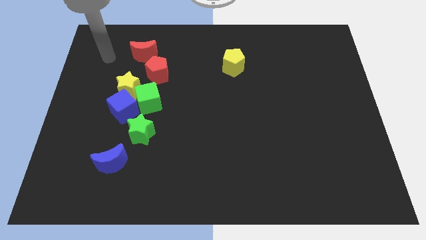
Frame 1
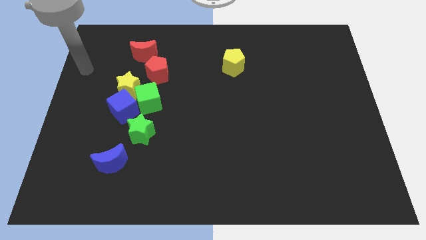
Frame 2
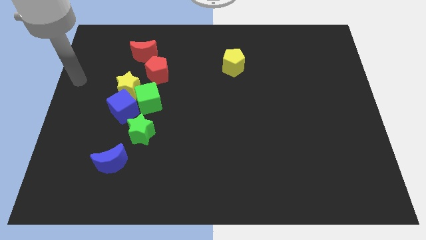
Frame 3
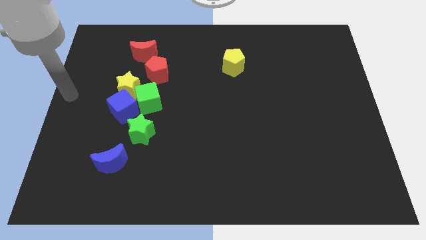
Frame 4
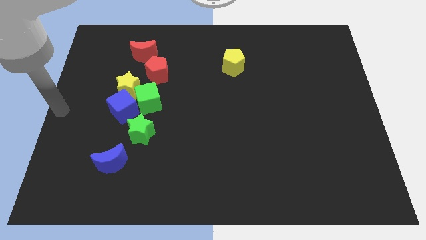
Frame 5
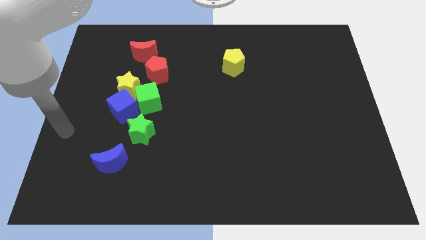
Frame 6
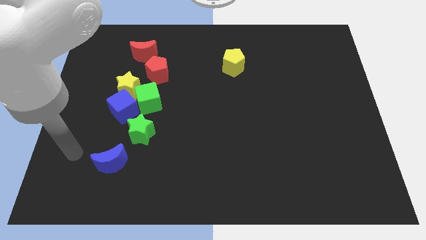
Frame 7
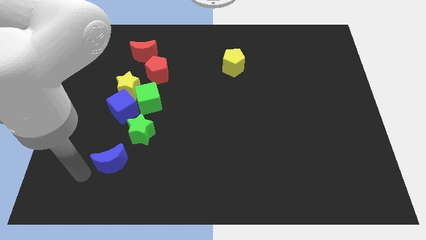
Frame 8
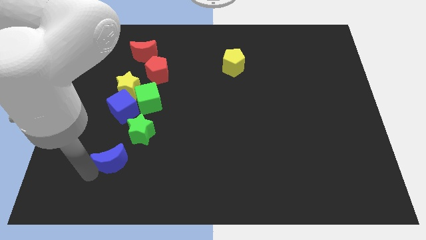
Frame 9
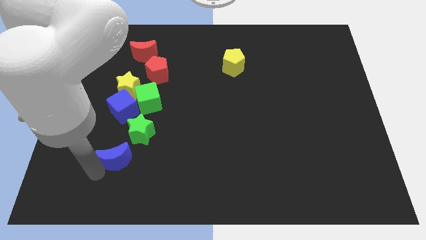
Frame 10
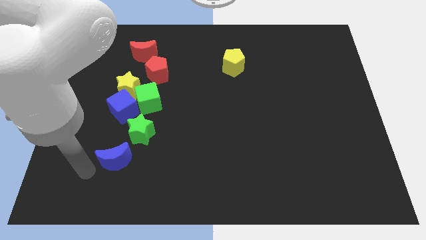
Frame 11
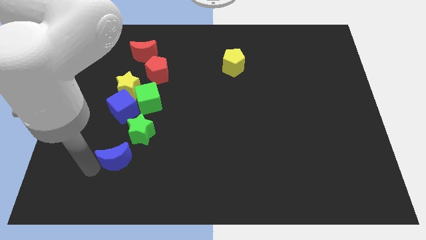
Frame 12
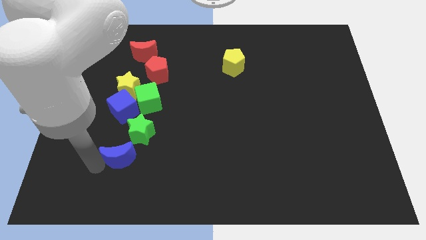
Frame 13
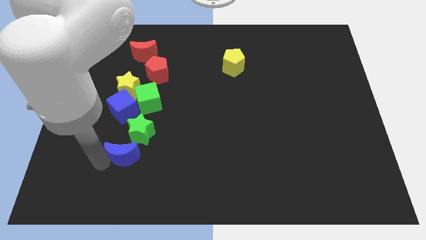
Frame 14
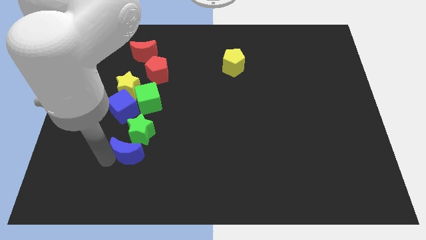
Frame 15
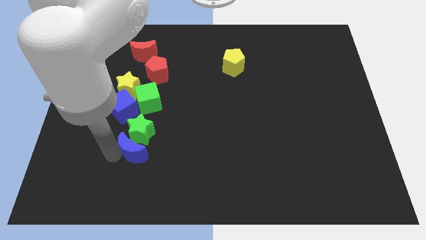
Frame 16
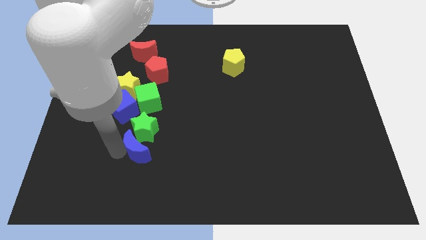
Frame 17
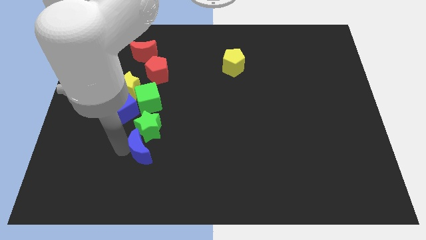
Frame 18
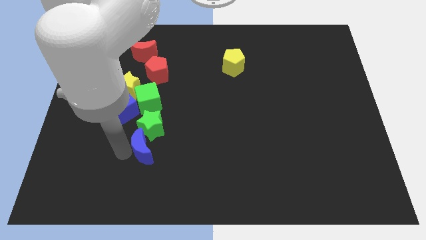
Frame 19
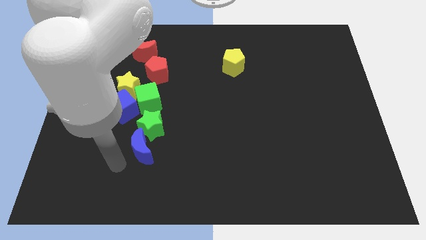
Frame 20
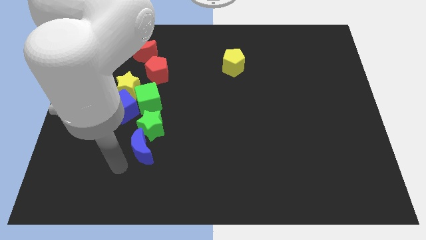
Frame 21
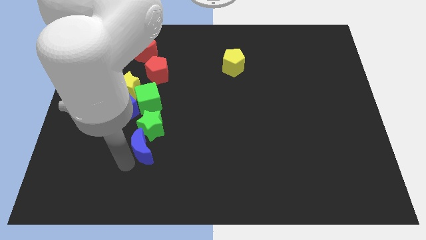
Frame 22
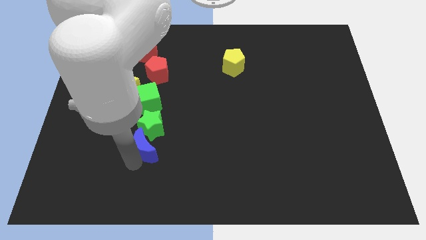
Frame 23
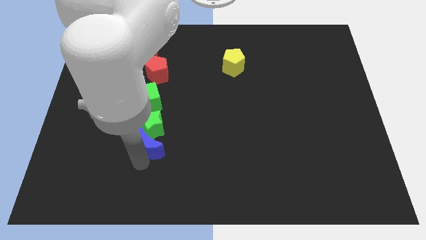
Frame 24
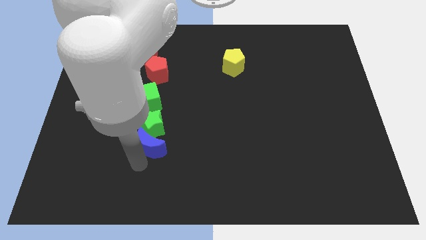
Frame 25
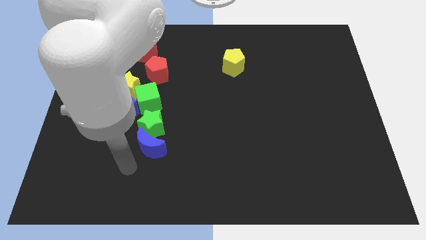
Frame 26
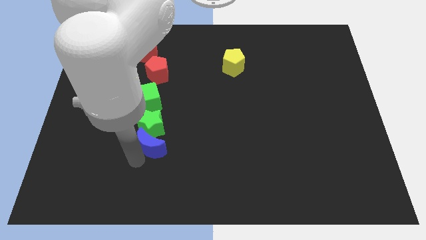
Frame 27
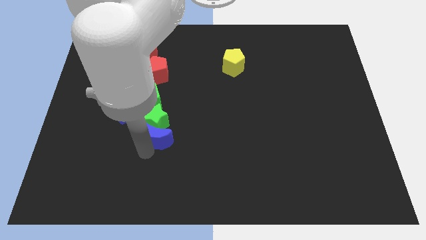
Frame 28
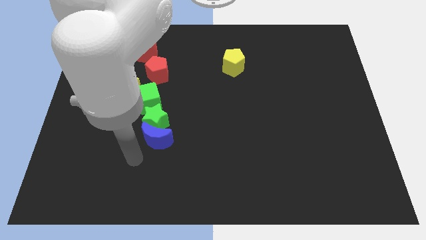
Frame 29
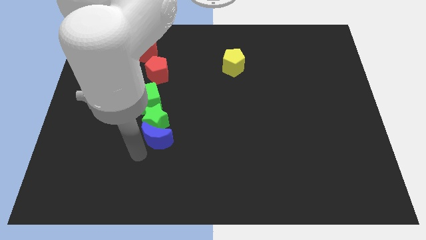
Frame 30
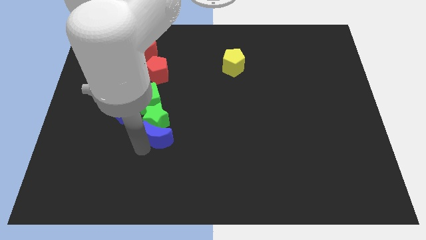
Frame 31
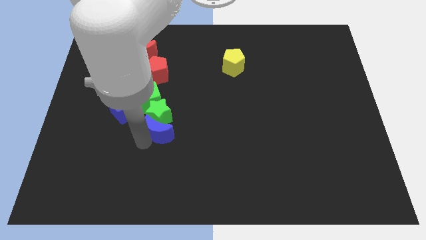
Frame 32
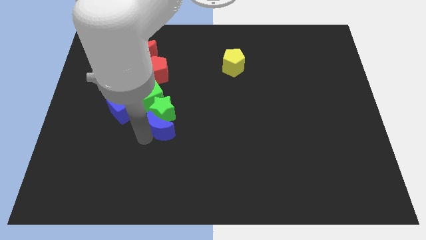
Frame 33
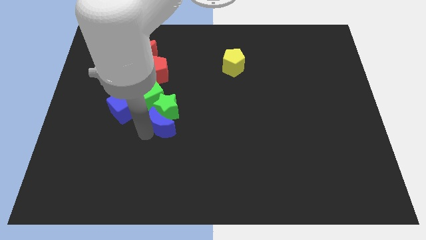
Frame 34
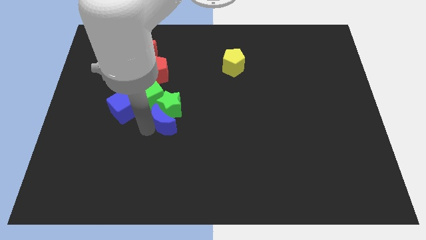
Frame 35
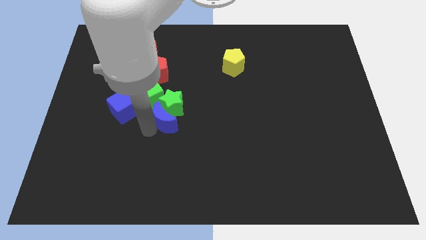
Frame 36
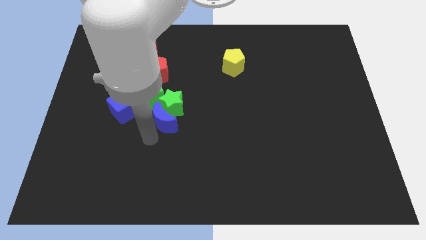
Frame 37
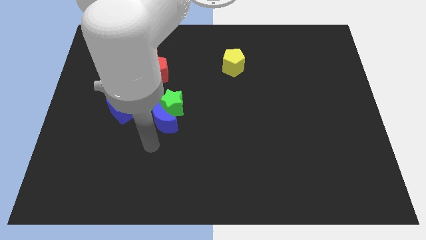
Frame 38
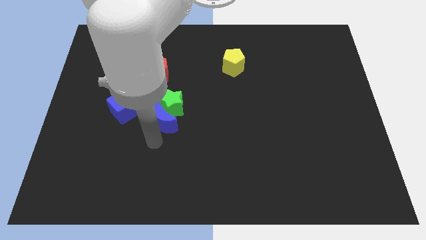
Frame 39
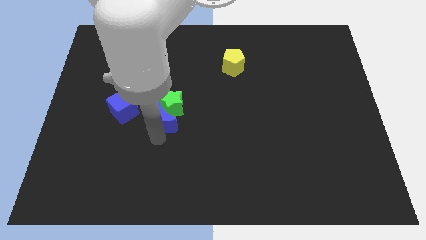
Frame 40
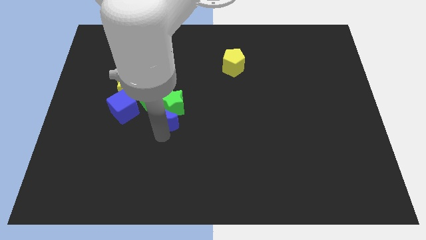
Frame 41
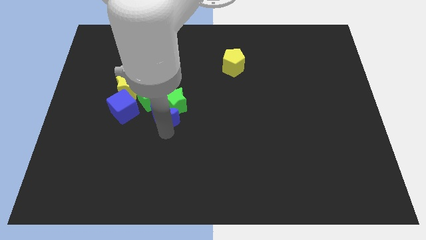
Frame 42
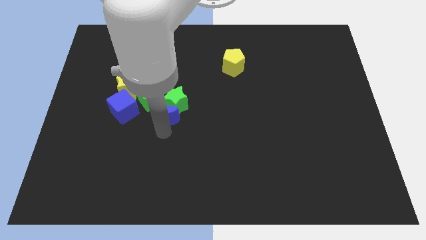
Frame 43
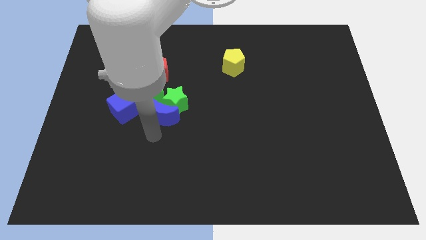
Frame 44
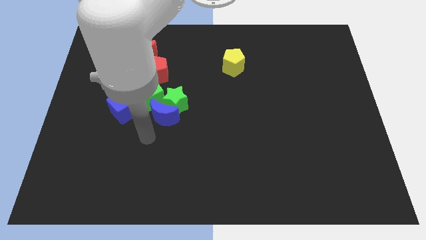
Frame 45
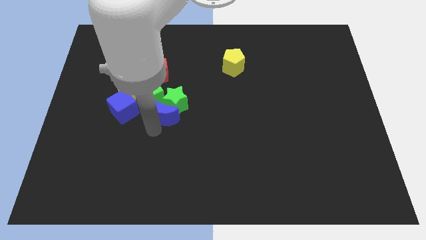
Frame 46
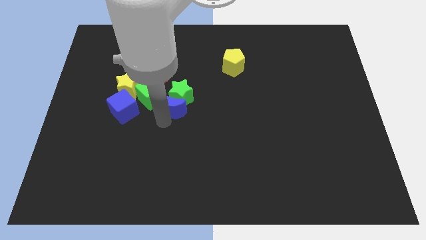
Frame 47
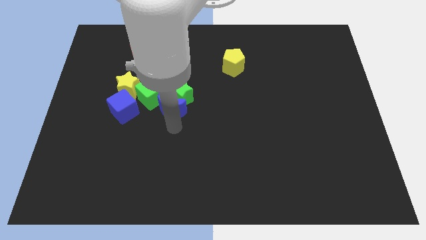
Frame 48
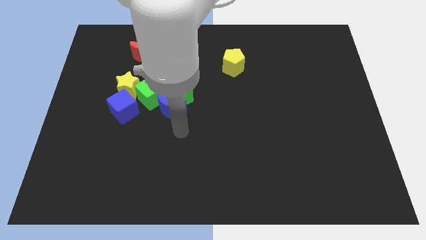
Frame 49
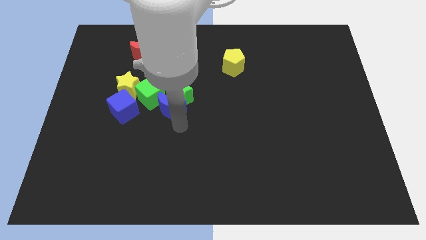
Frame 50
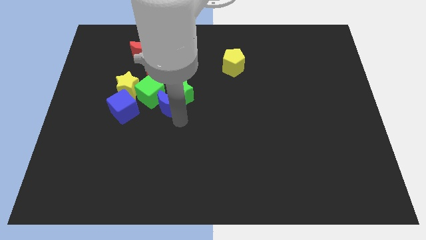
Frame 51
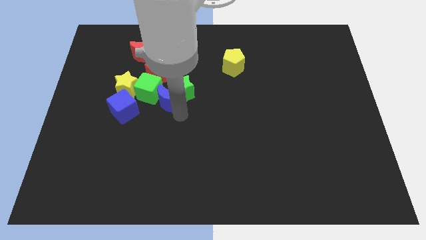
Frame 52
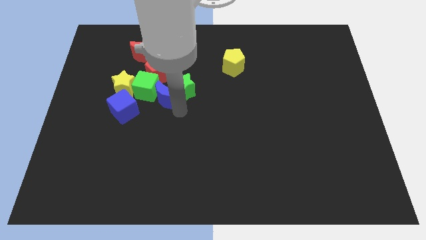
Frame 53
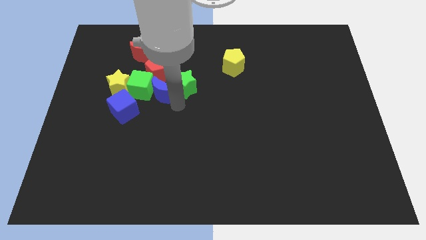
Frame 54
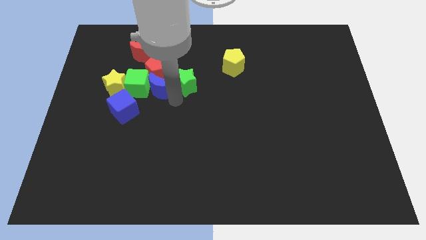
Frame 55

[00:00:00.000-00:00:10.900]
push the blue moon to the red pentagon

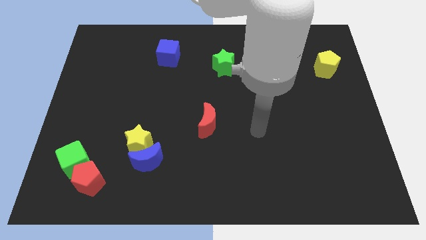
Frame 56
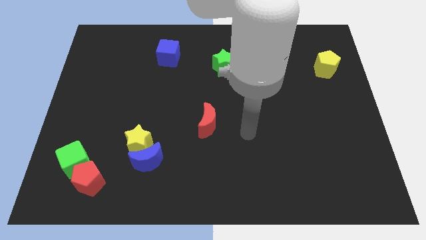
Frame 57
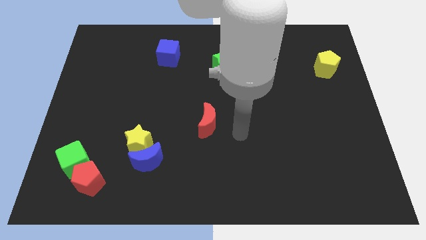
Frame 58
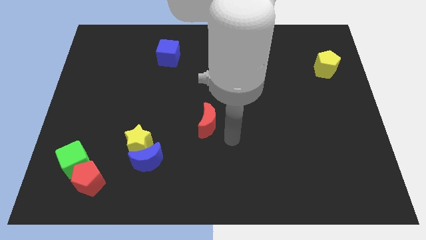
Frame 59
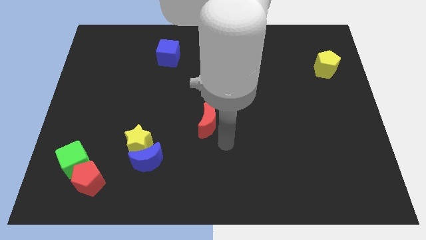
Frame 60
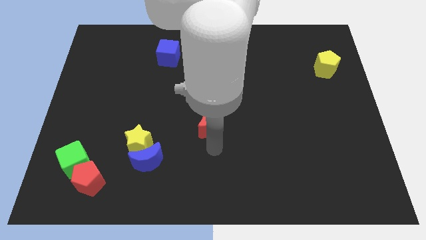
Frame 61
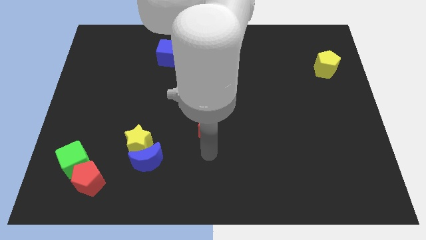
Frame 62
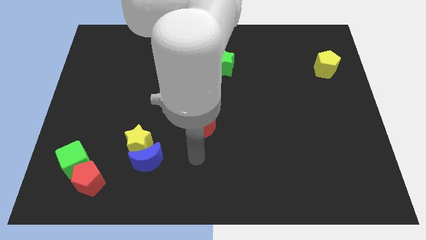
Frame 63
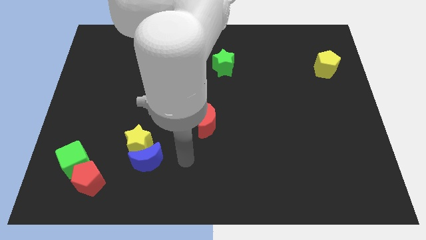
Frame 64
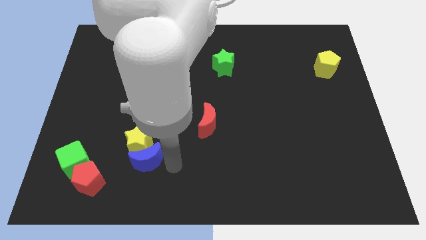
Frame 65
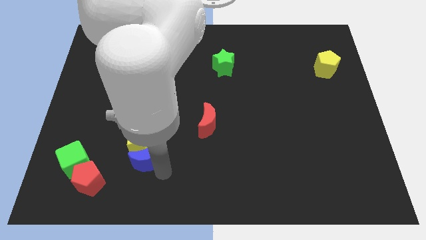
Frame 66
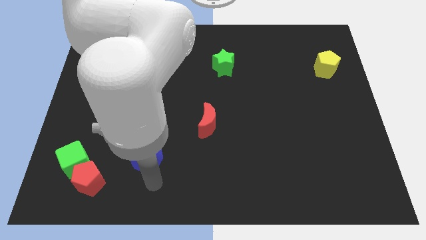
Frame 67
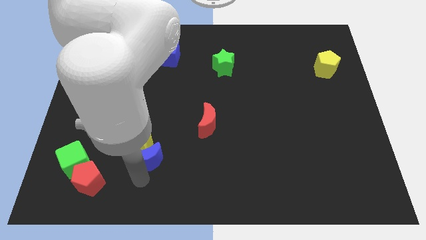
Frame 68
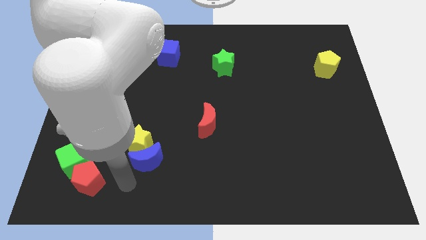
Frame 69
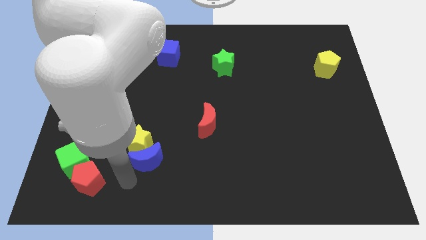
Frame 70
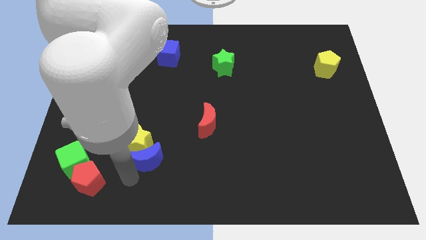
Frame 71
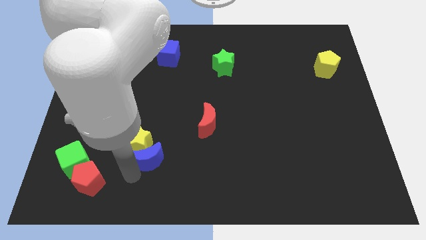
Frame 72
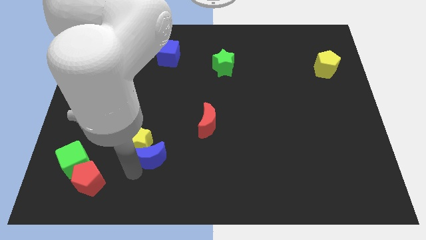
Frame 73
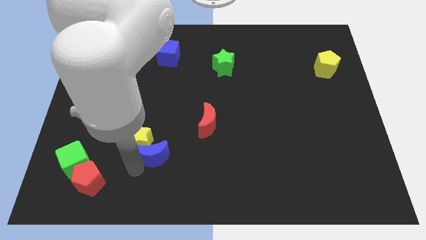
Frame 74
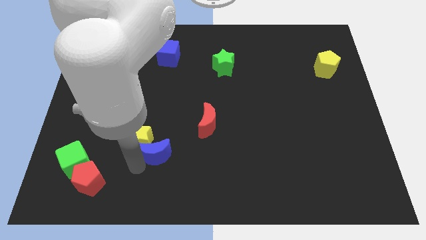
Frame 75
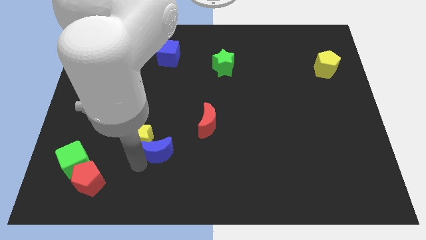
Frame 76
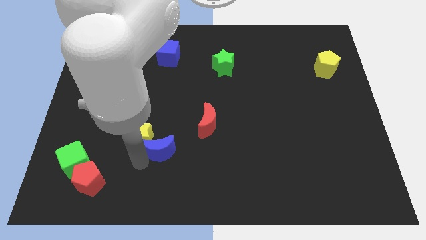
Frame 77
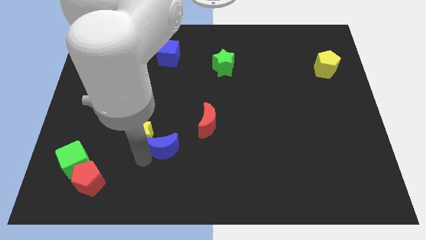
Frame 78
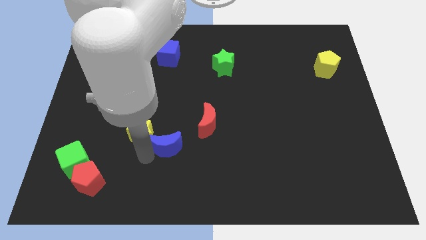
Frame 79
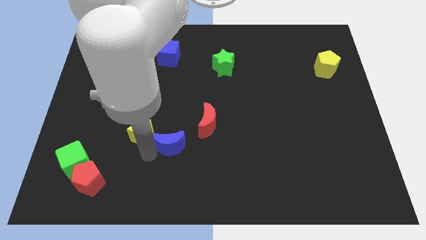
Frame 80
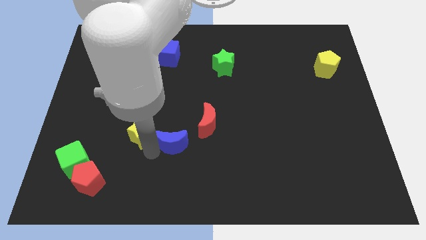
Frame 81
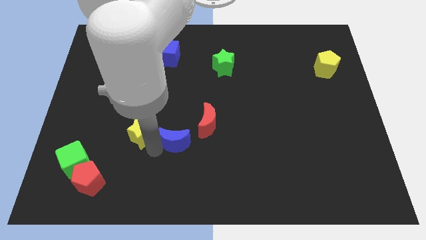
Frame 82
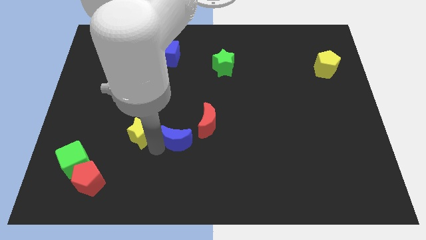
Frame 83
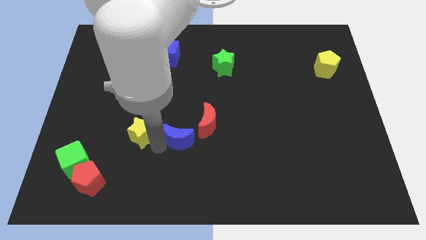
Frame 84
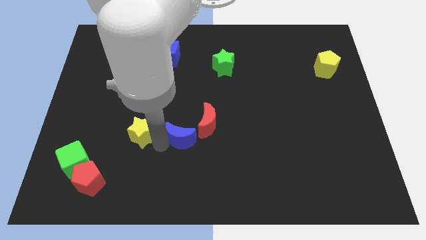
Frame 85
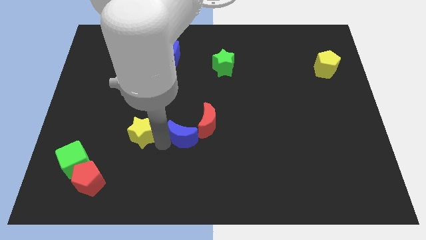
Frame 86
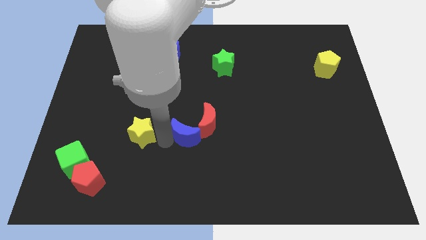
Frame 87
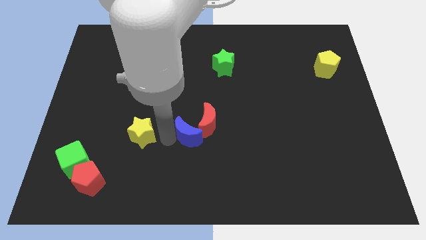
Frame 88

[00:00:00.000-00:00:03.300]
put the blue moon next to the red moon
